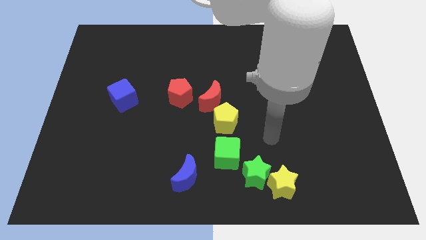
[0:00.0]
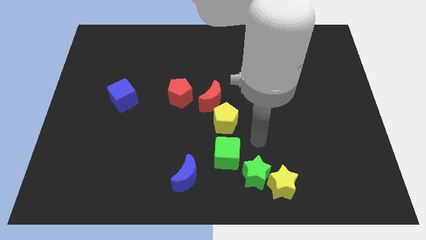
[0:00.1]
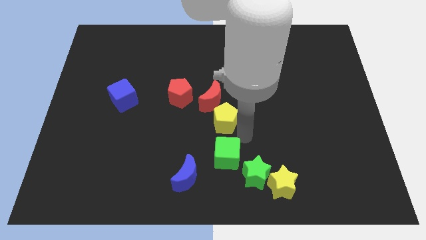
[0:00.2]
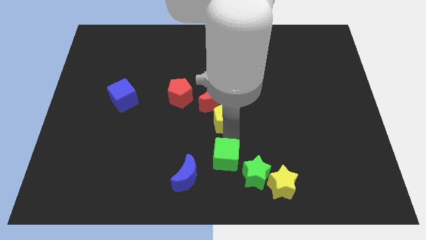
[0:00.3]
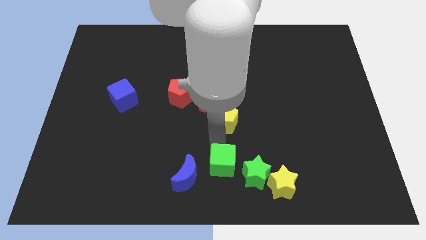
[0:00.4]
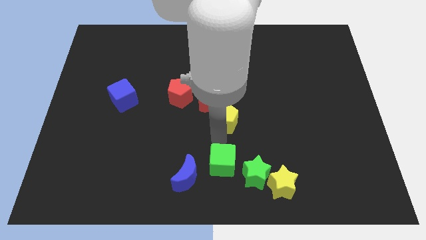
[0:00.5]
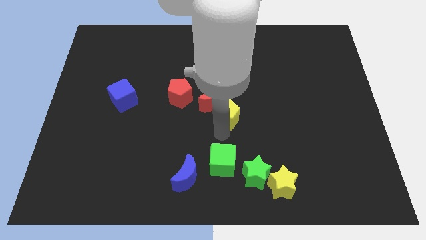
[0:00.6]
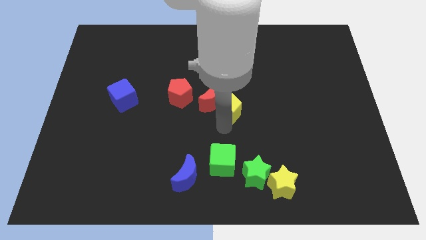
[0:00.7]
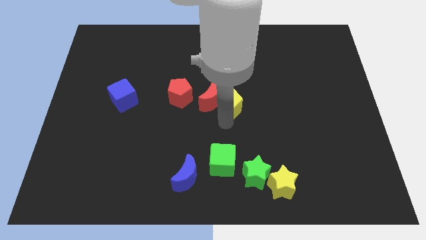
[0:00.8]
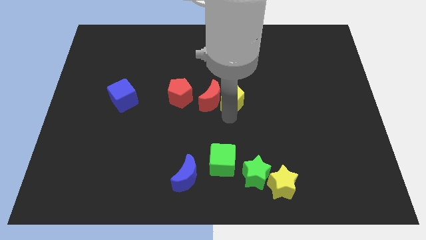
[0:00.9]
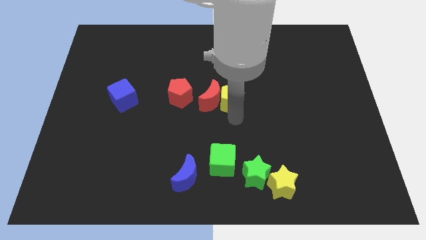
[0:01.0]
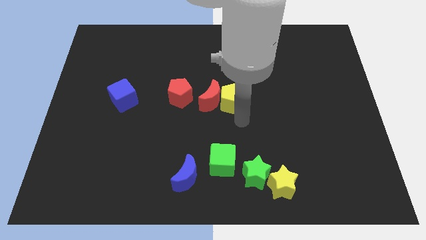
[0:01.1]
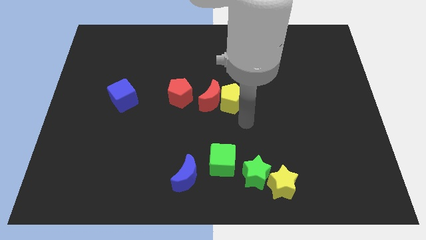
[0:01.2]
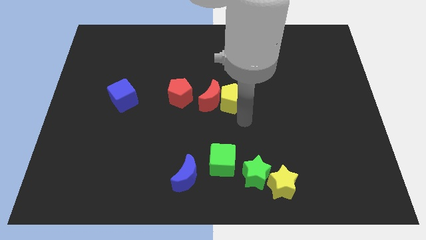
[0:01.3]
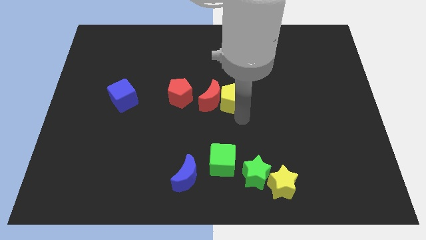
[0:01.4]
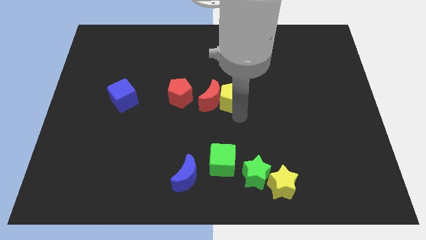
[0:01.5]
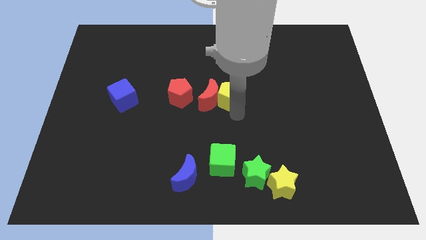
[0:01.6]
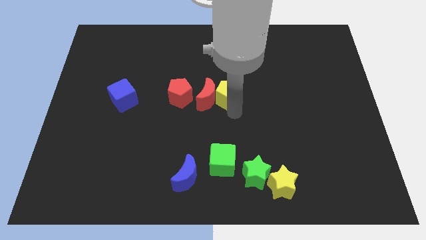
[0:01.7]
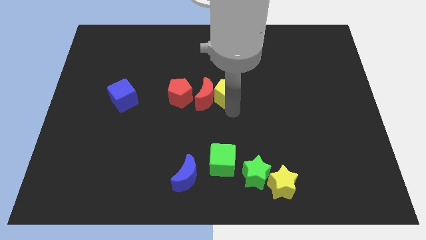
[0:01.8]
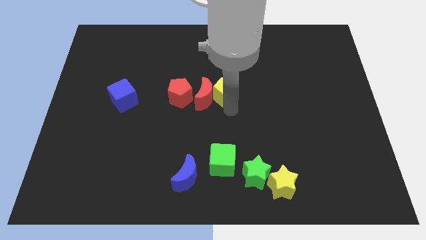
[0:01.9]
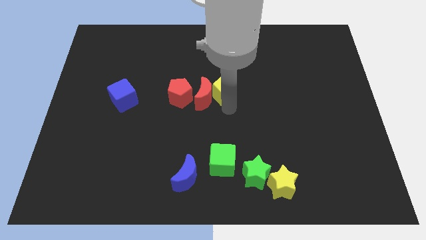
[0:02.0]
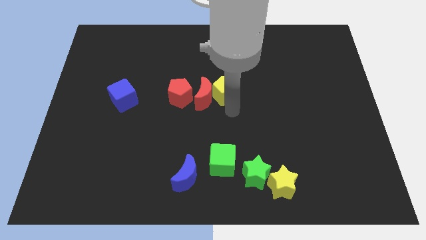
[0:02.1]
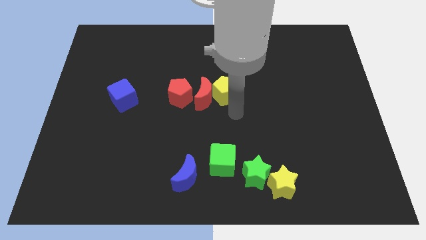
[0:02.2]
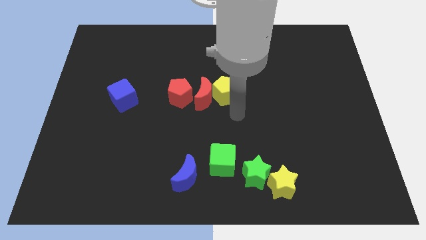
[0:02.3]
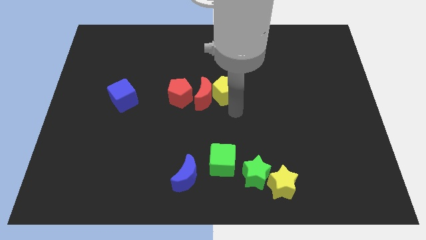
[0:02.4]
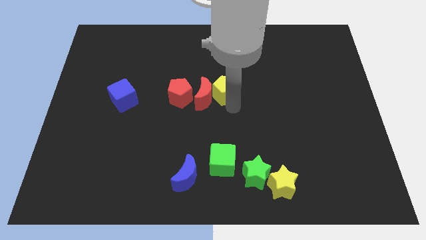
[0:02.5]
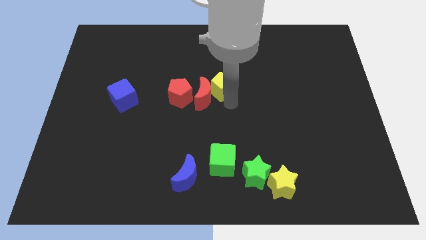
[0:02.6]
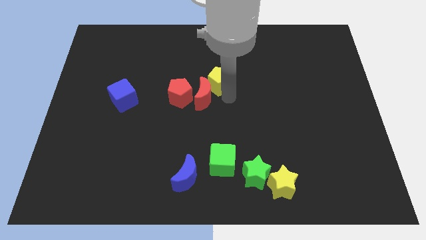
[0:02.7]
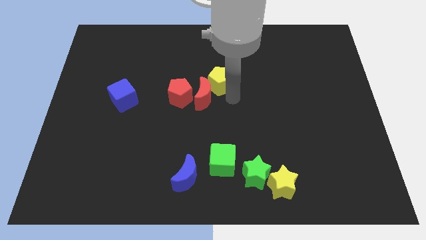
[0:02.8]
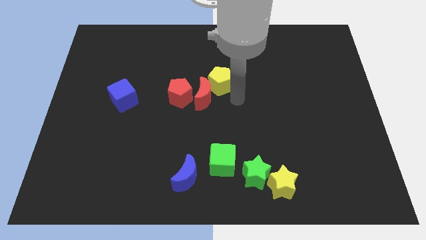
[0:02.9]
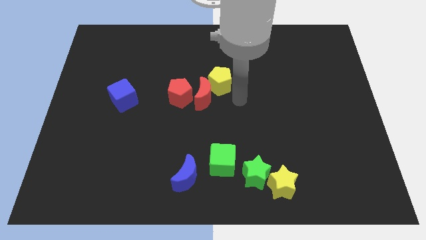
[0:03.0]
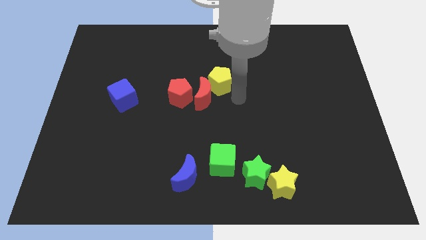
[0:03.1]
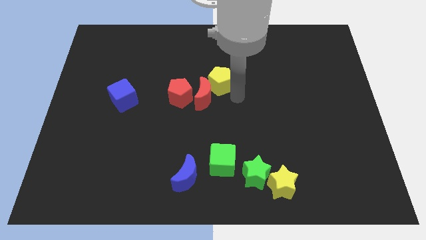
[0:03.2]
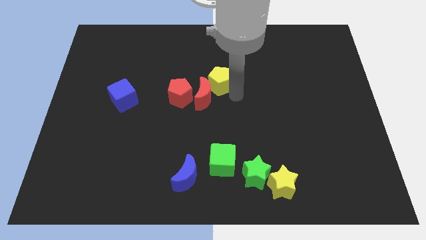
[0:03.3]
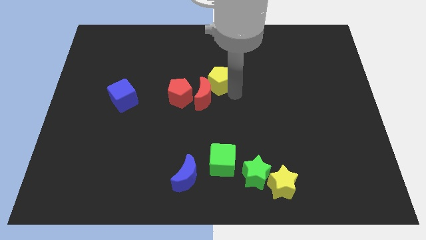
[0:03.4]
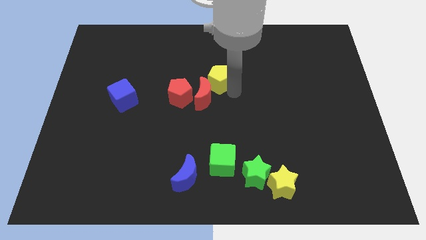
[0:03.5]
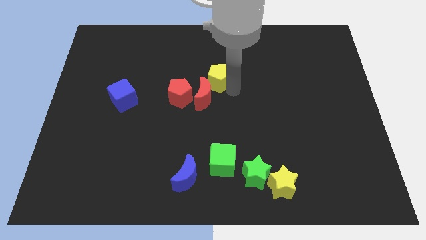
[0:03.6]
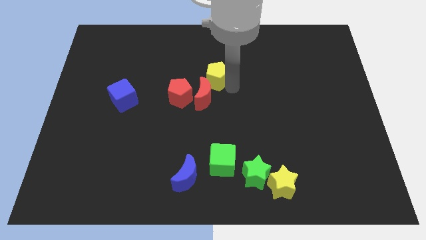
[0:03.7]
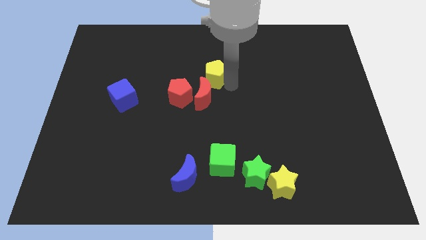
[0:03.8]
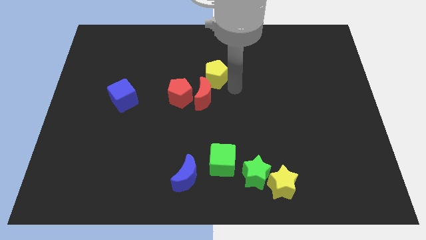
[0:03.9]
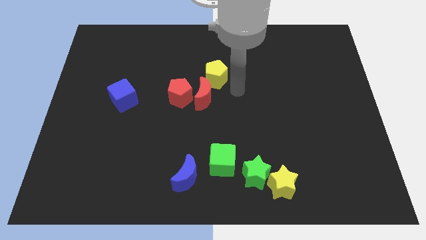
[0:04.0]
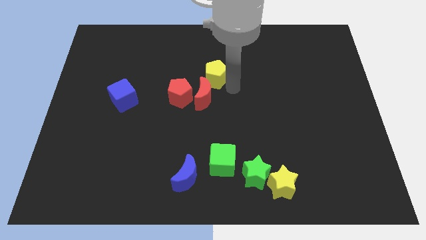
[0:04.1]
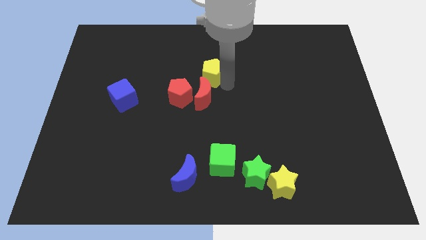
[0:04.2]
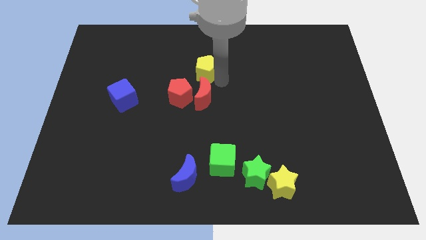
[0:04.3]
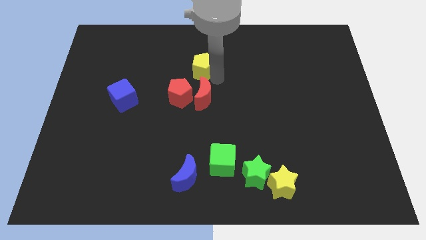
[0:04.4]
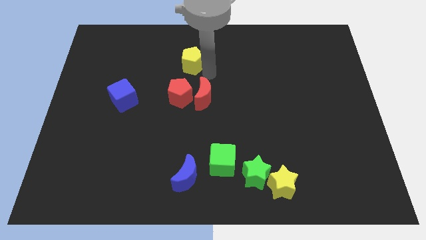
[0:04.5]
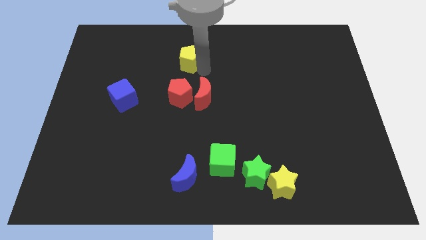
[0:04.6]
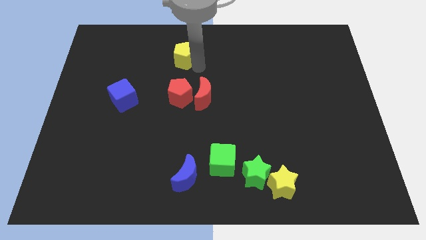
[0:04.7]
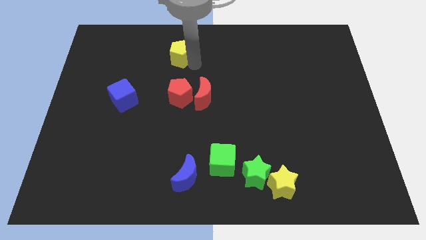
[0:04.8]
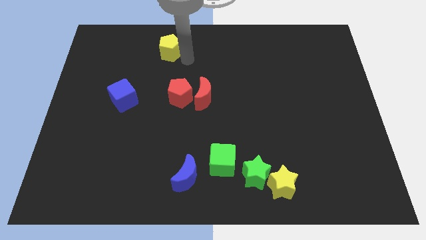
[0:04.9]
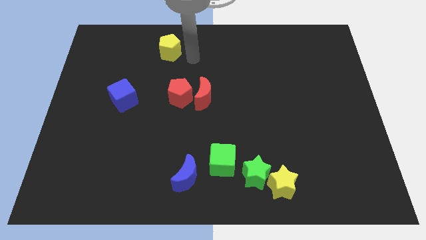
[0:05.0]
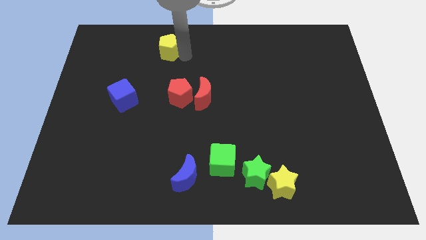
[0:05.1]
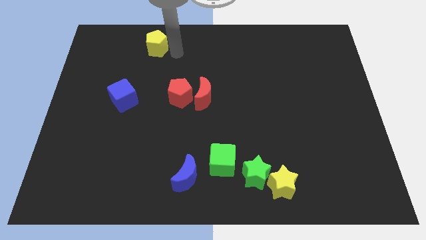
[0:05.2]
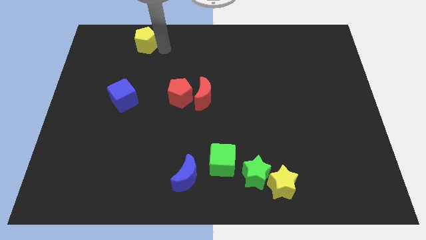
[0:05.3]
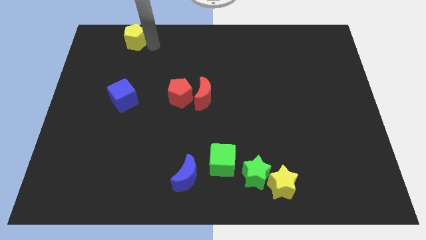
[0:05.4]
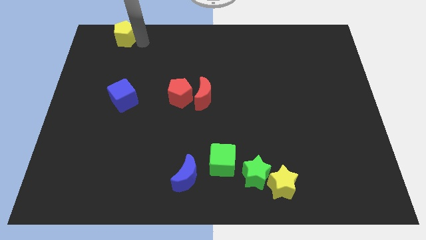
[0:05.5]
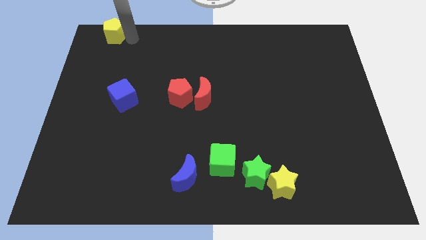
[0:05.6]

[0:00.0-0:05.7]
slide the yellow pentagon to the top left of the board

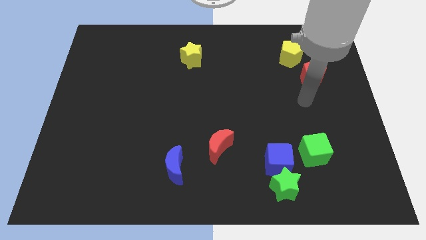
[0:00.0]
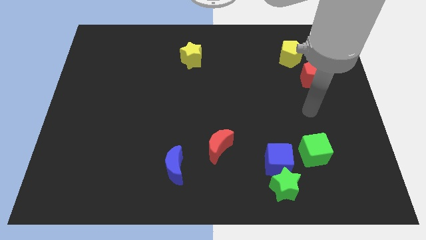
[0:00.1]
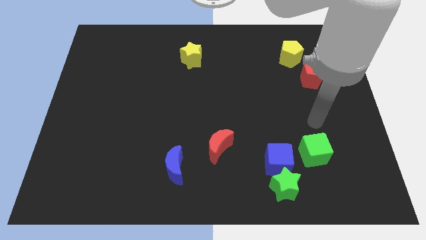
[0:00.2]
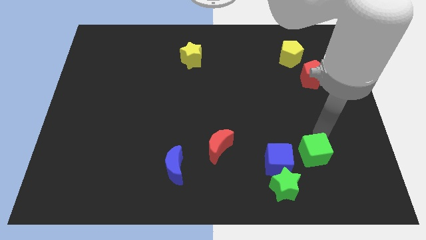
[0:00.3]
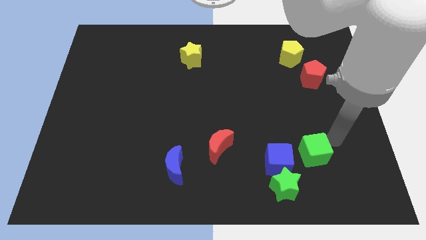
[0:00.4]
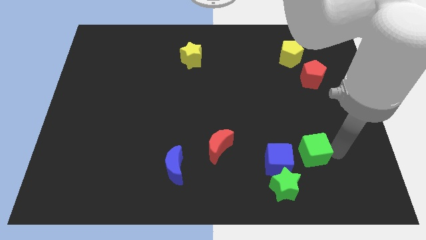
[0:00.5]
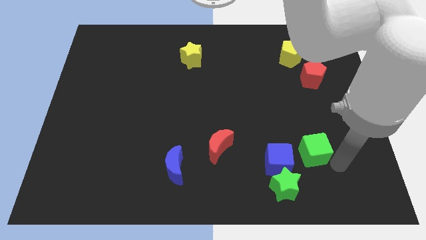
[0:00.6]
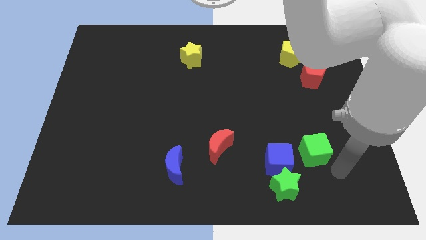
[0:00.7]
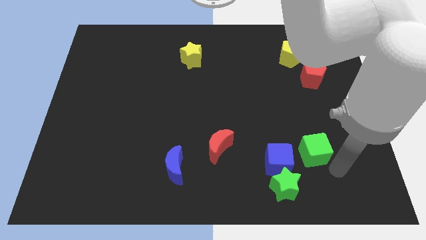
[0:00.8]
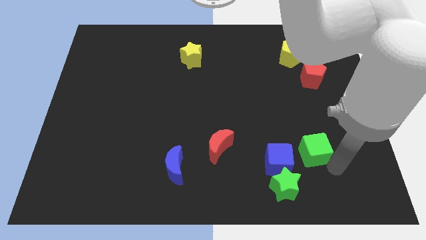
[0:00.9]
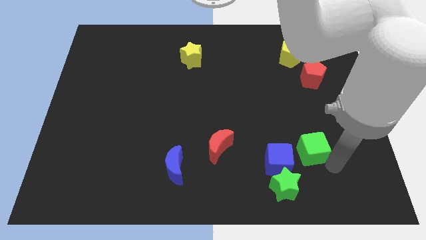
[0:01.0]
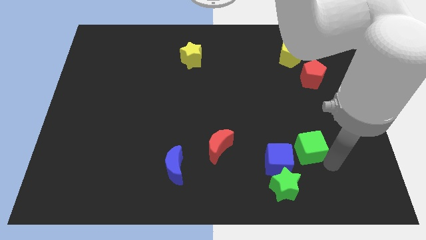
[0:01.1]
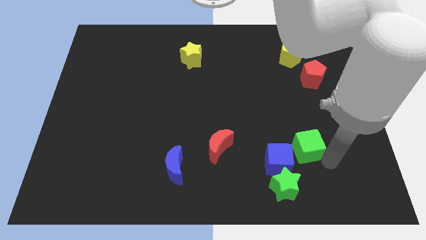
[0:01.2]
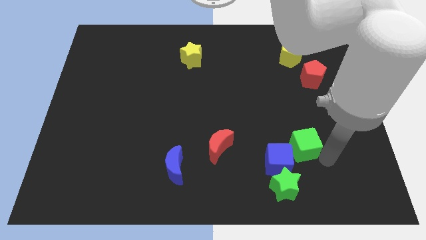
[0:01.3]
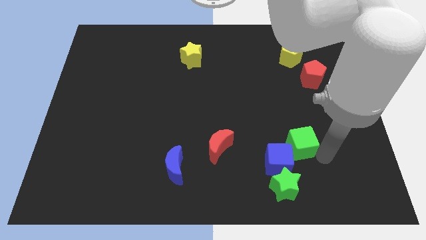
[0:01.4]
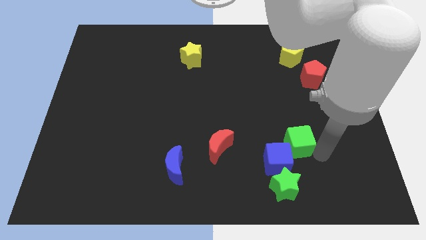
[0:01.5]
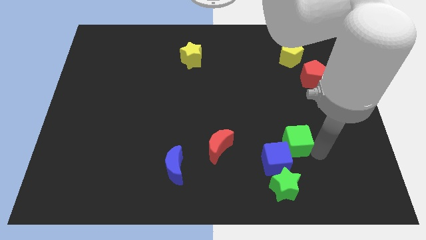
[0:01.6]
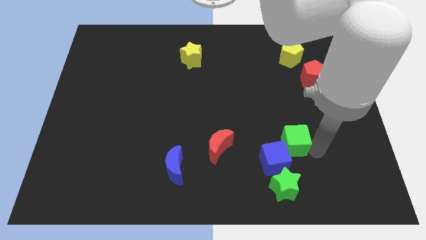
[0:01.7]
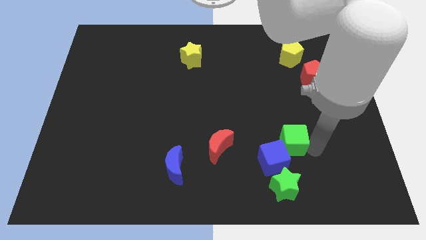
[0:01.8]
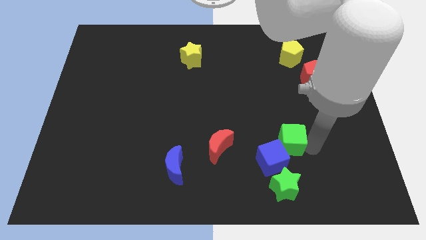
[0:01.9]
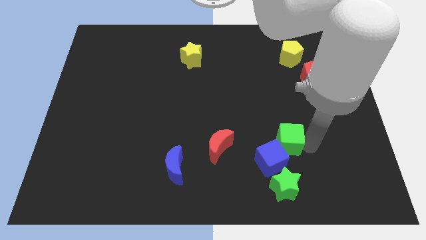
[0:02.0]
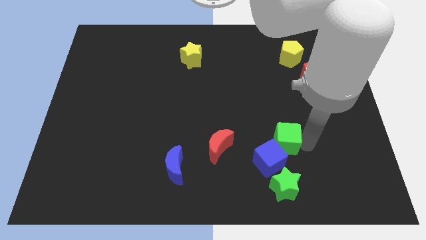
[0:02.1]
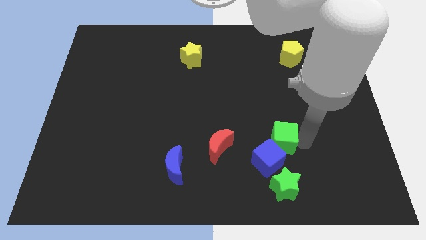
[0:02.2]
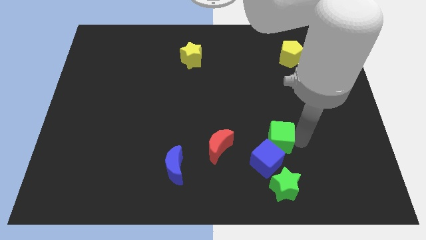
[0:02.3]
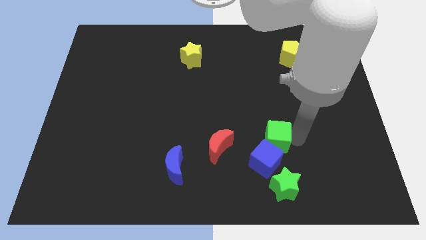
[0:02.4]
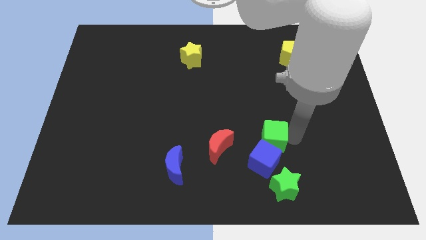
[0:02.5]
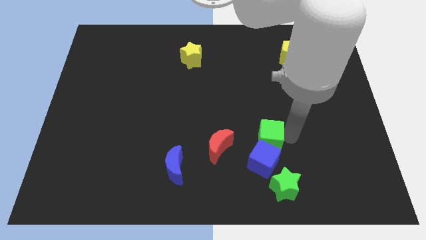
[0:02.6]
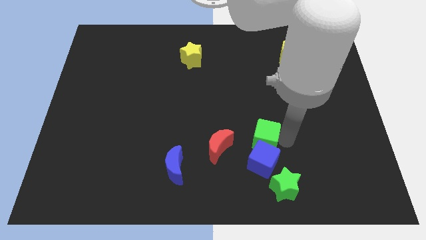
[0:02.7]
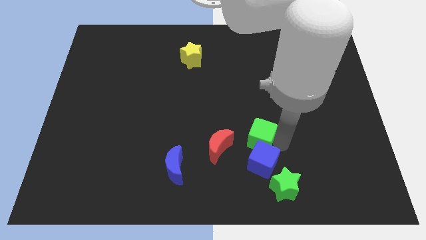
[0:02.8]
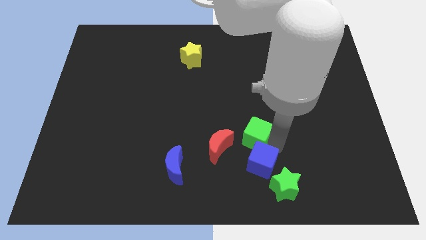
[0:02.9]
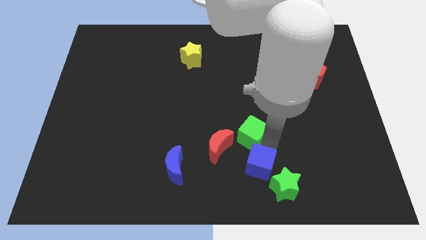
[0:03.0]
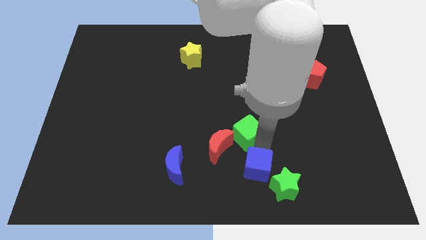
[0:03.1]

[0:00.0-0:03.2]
put the green cube to the center
